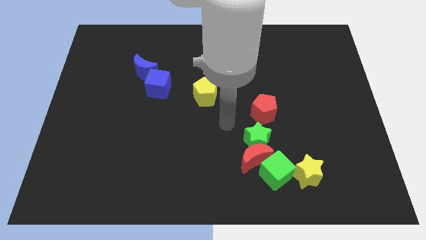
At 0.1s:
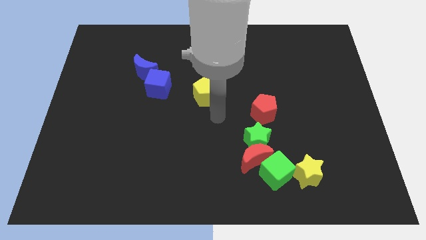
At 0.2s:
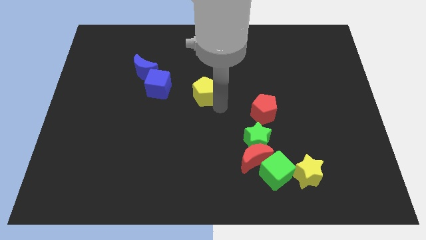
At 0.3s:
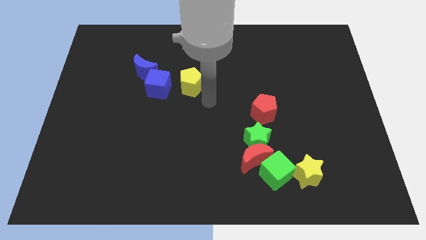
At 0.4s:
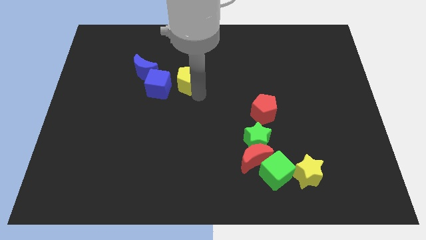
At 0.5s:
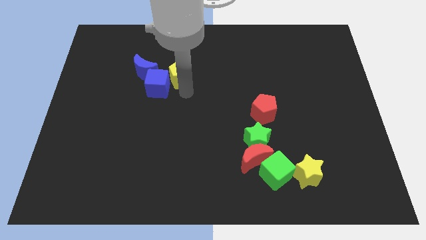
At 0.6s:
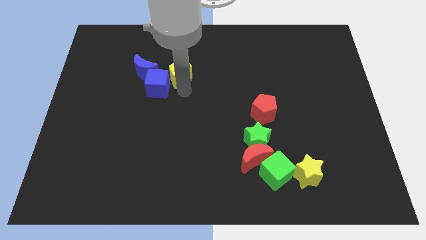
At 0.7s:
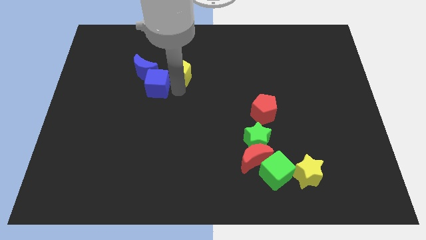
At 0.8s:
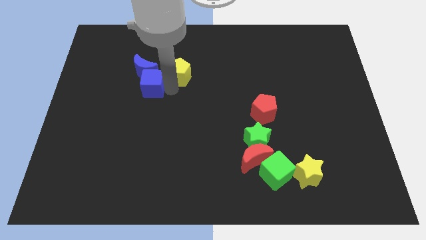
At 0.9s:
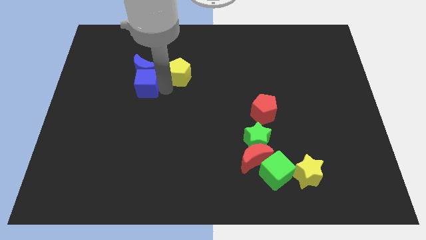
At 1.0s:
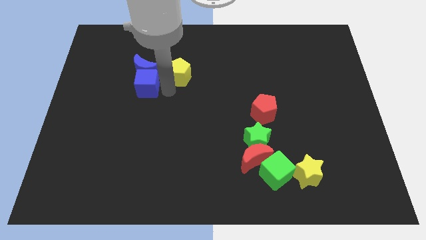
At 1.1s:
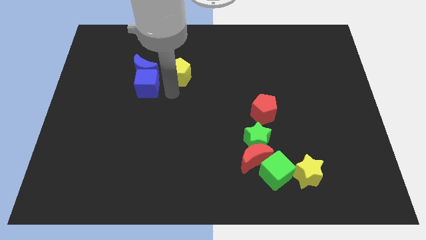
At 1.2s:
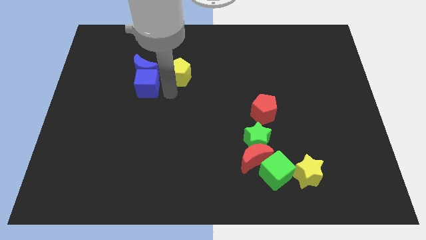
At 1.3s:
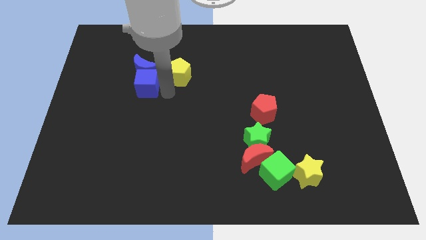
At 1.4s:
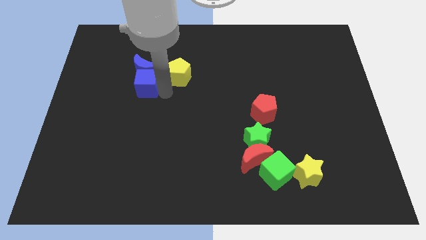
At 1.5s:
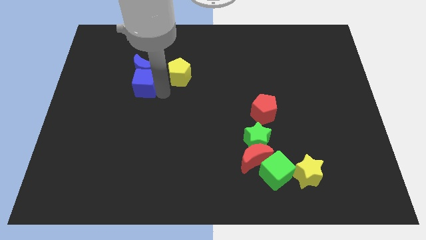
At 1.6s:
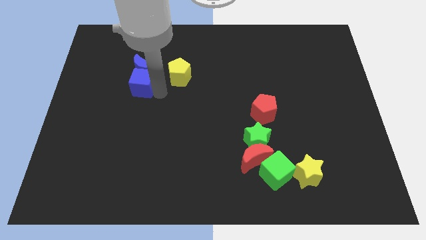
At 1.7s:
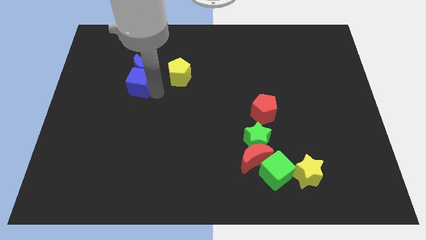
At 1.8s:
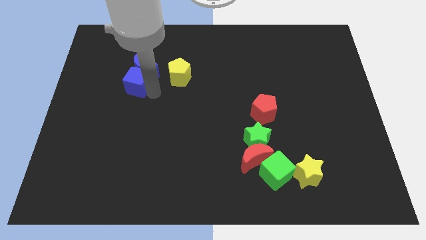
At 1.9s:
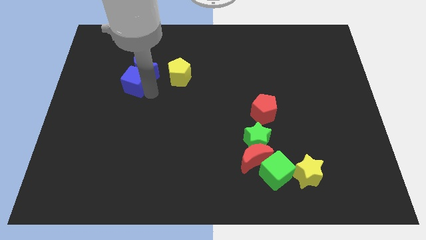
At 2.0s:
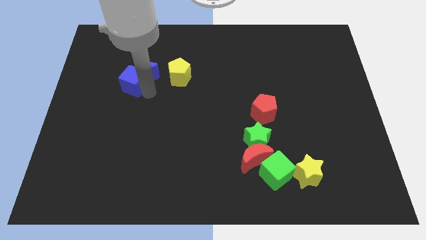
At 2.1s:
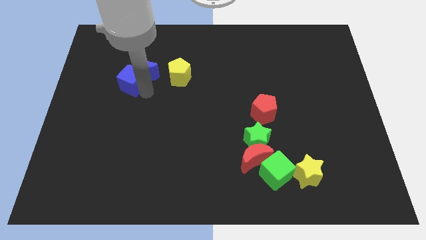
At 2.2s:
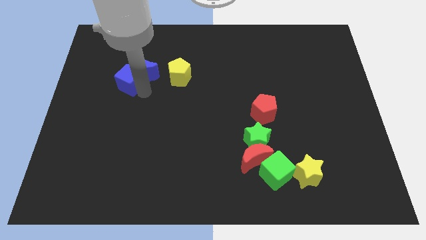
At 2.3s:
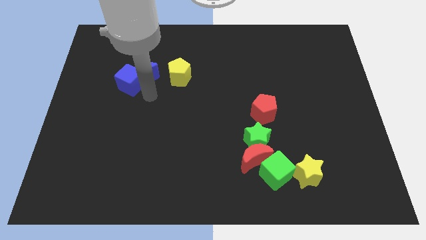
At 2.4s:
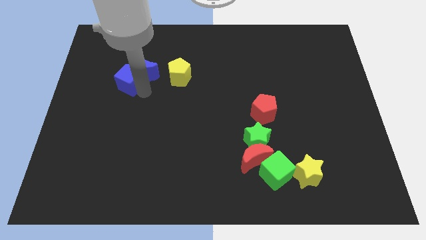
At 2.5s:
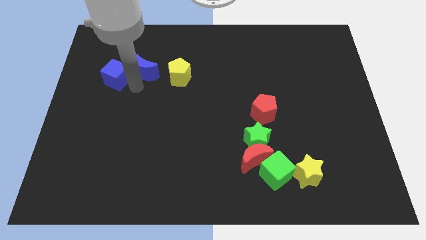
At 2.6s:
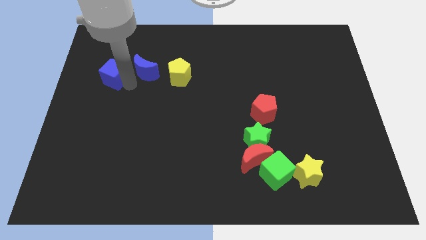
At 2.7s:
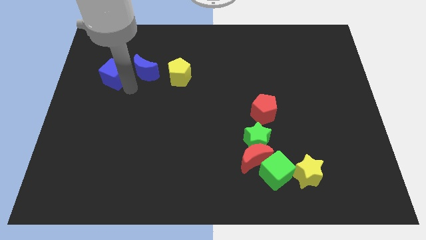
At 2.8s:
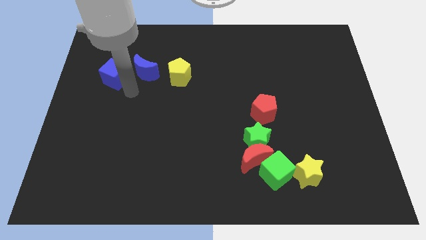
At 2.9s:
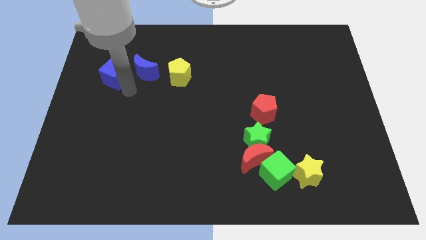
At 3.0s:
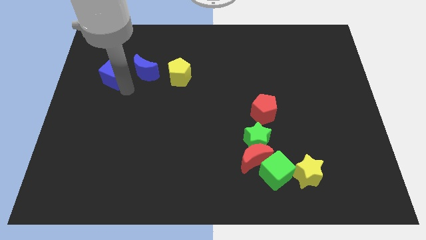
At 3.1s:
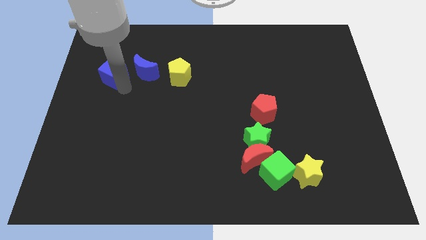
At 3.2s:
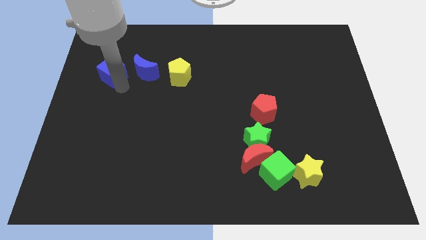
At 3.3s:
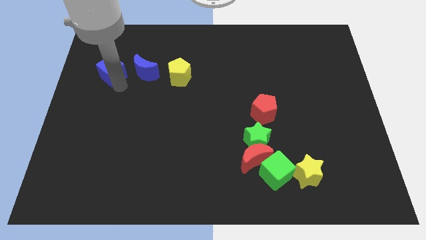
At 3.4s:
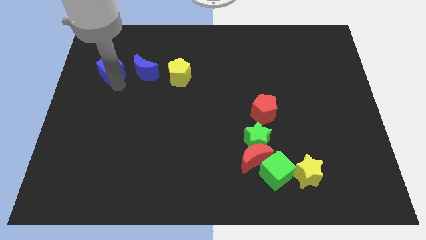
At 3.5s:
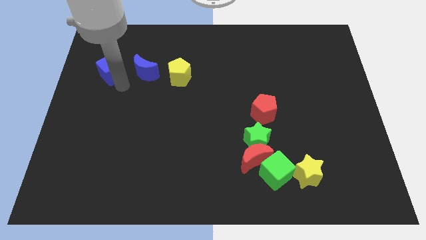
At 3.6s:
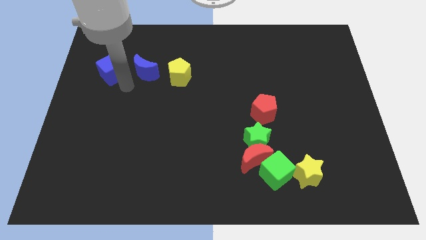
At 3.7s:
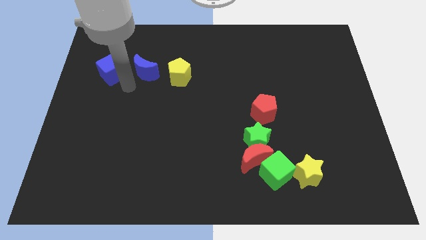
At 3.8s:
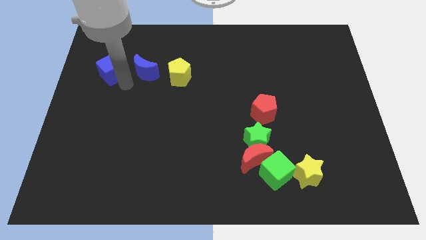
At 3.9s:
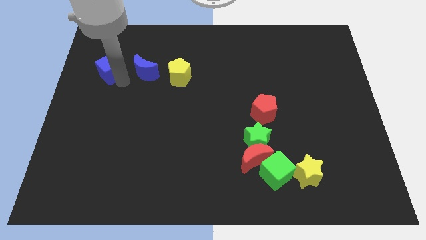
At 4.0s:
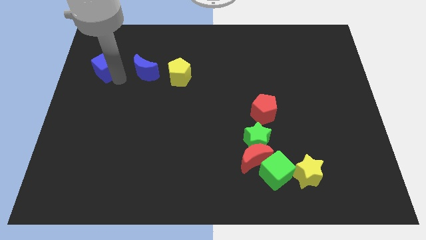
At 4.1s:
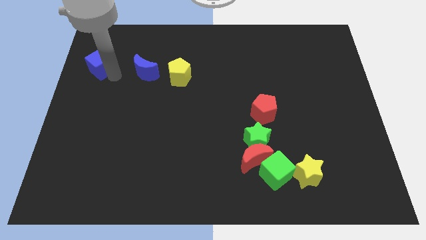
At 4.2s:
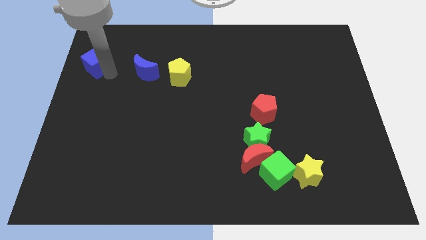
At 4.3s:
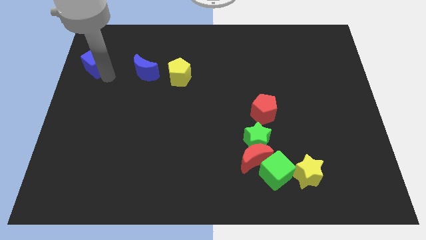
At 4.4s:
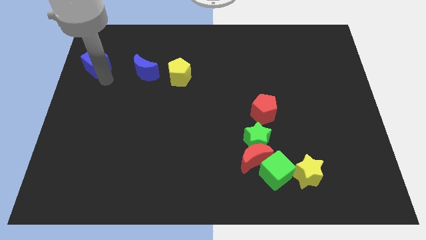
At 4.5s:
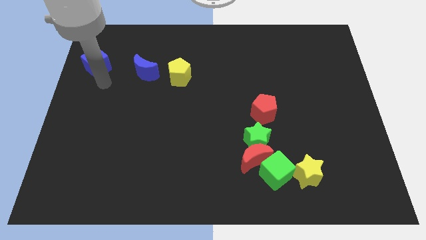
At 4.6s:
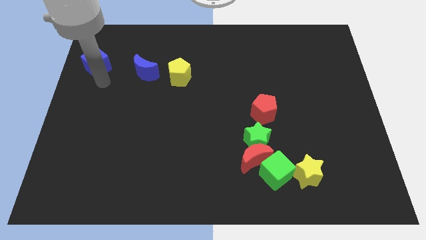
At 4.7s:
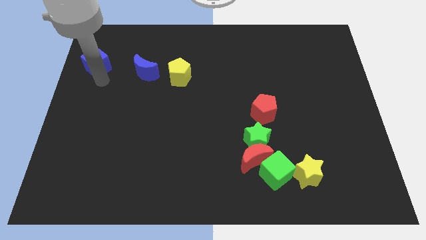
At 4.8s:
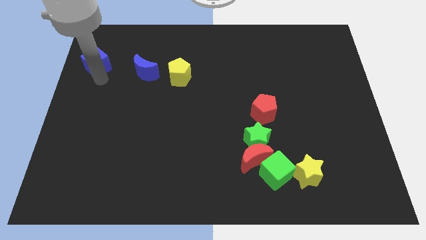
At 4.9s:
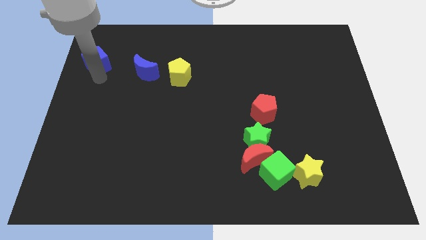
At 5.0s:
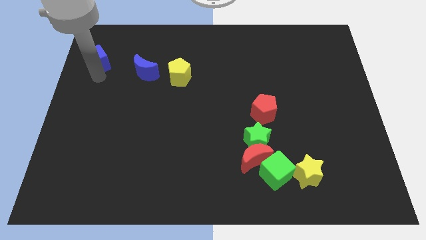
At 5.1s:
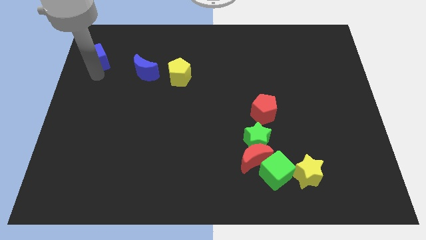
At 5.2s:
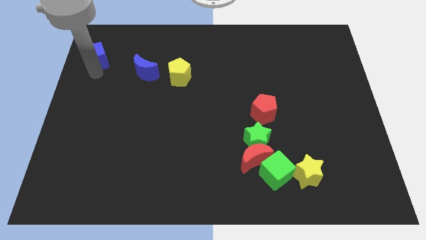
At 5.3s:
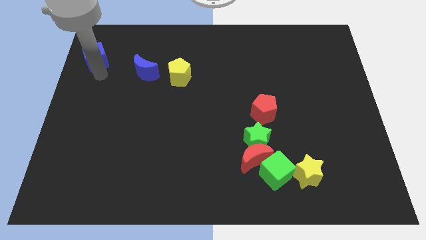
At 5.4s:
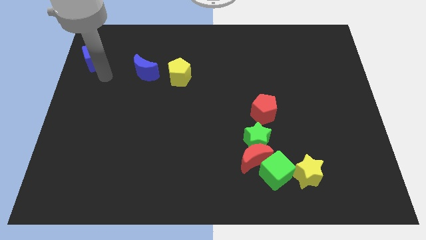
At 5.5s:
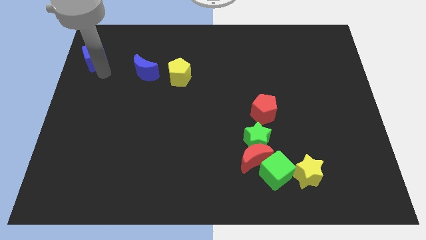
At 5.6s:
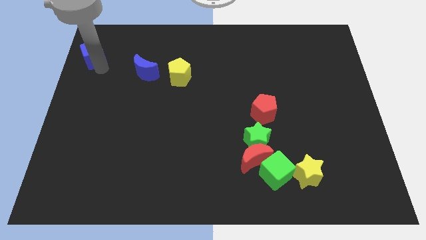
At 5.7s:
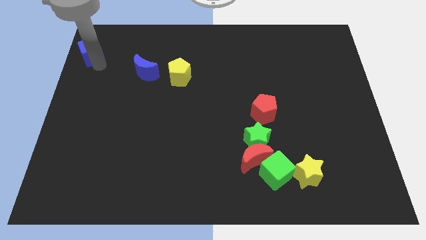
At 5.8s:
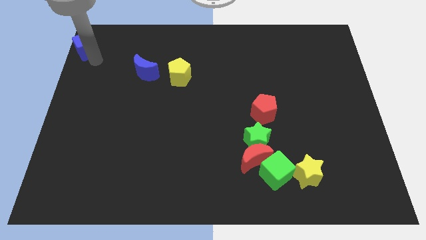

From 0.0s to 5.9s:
move the blue cube to the upper left corner

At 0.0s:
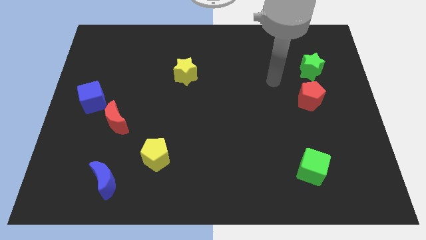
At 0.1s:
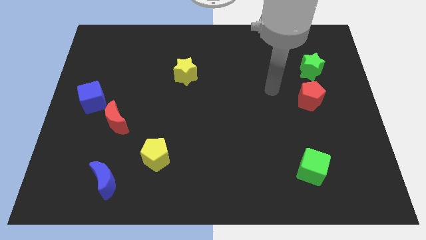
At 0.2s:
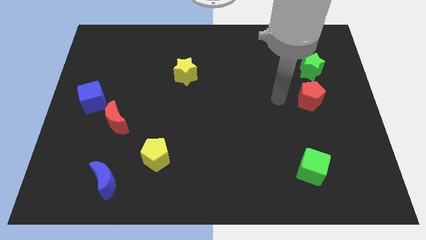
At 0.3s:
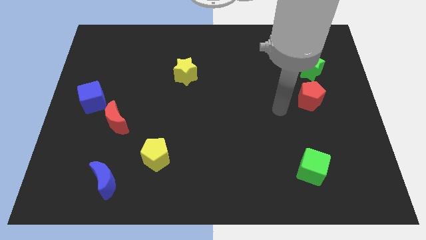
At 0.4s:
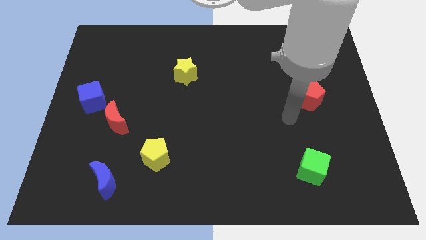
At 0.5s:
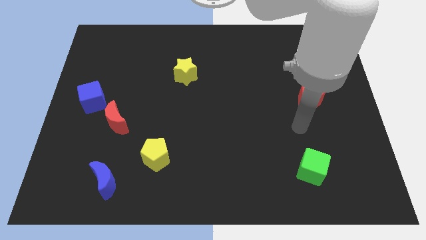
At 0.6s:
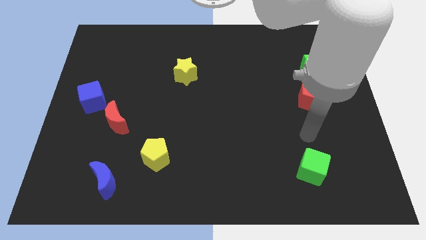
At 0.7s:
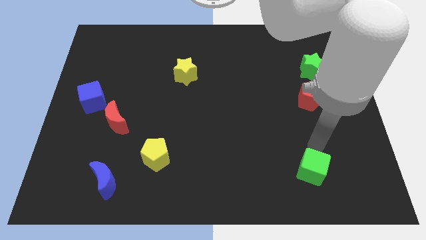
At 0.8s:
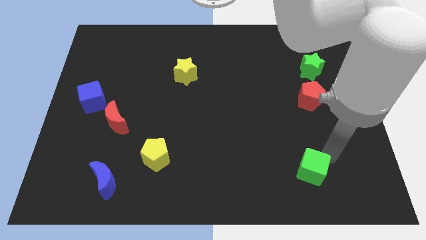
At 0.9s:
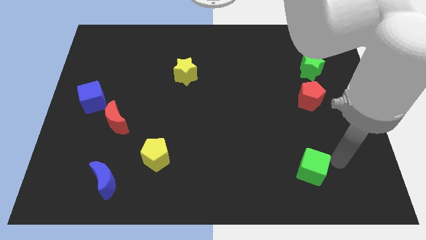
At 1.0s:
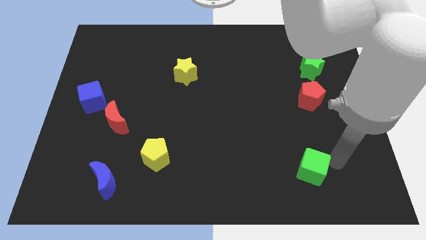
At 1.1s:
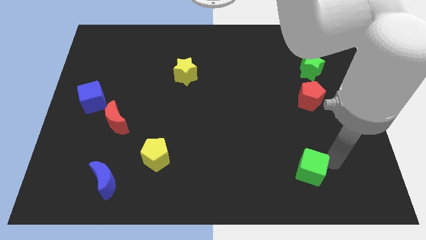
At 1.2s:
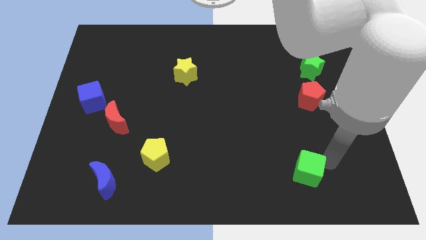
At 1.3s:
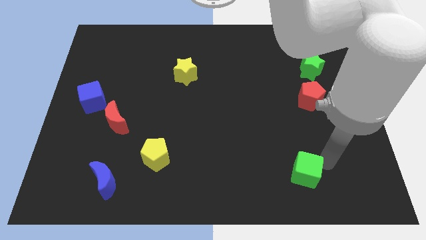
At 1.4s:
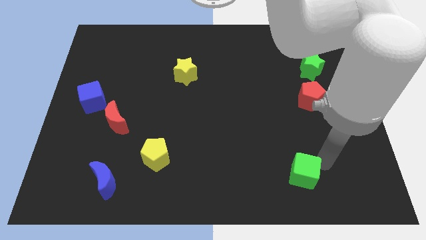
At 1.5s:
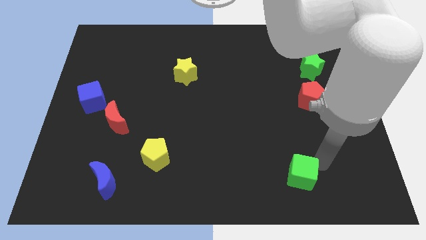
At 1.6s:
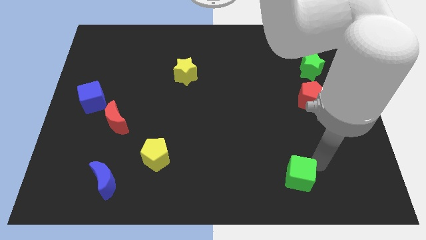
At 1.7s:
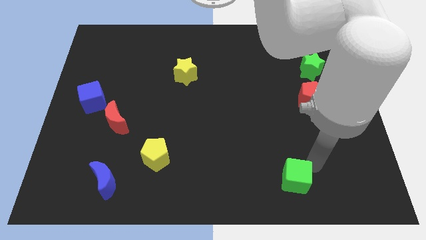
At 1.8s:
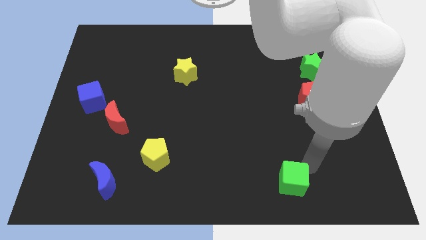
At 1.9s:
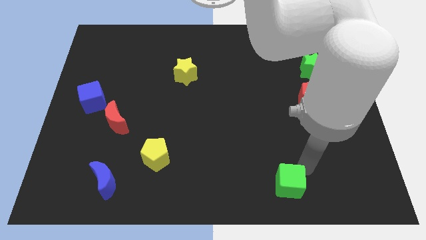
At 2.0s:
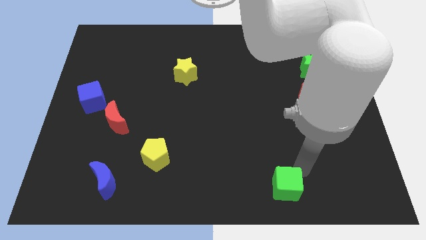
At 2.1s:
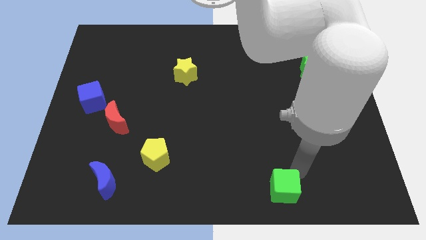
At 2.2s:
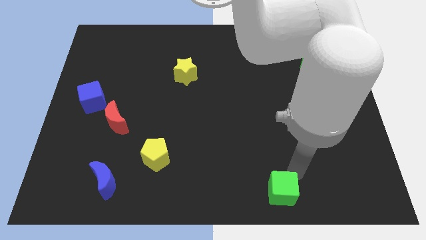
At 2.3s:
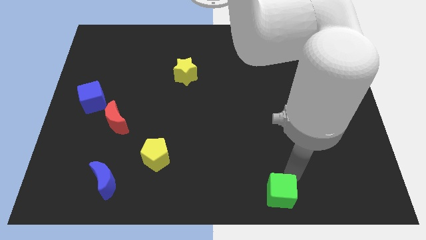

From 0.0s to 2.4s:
move the green cube to the bottom
